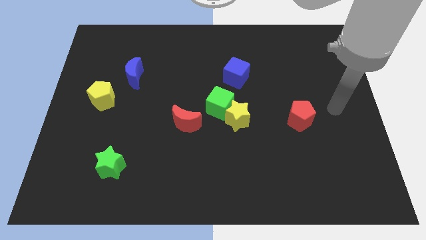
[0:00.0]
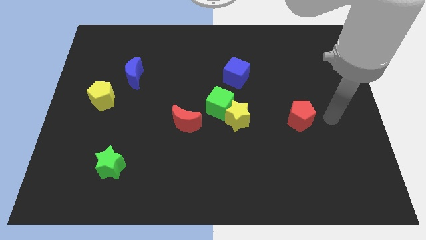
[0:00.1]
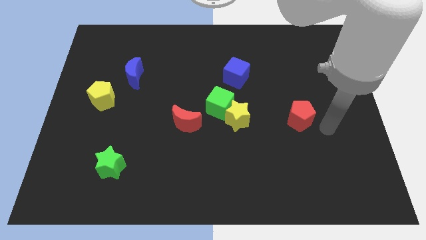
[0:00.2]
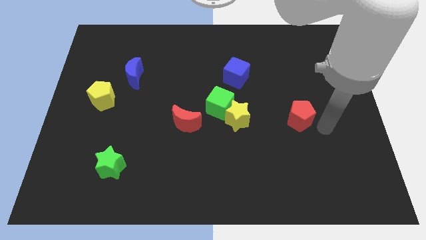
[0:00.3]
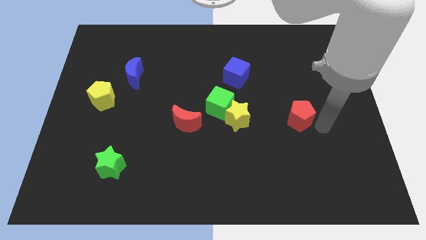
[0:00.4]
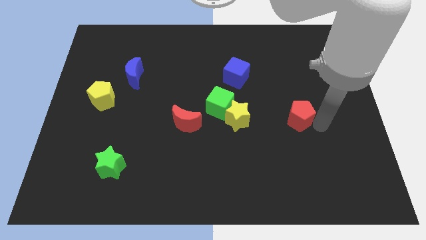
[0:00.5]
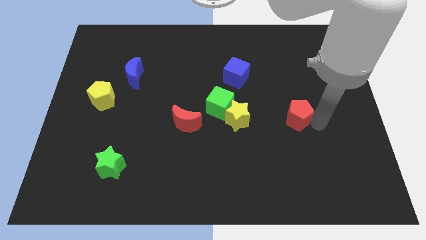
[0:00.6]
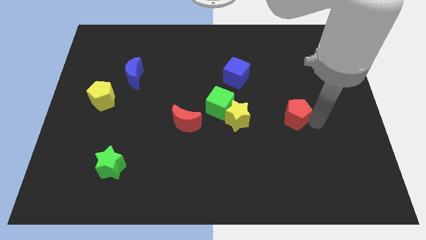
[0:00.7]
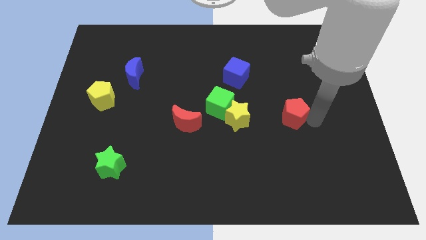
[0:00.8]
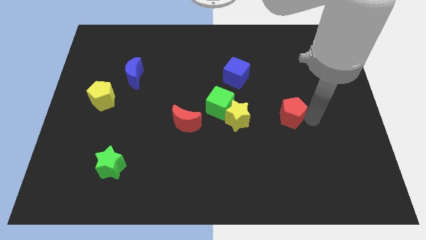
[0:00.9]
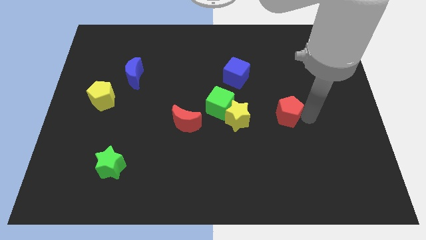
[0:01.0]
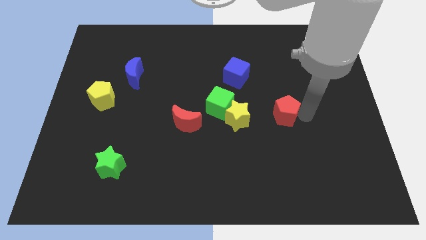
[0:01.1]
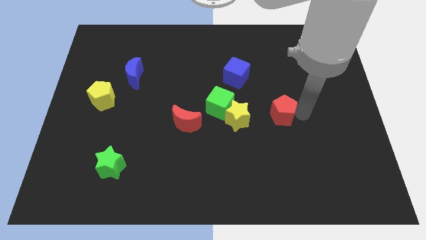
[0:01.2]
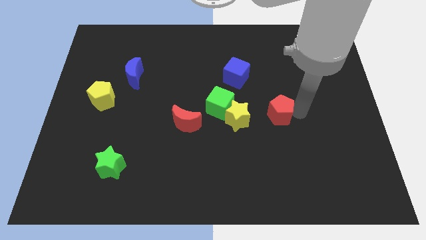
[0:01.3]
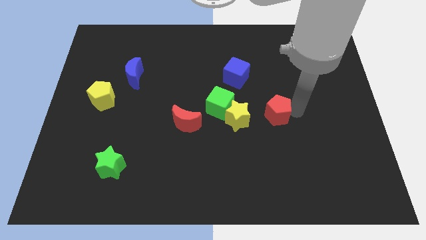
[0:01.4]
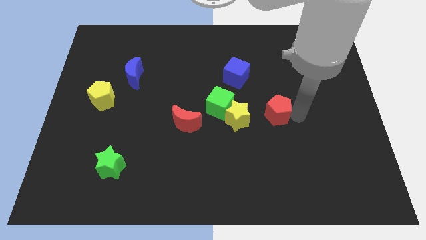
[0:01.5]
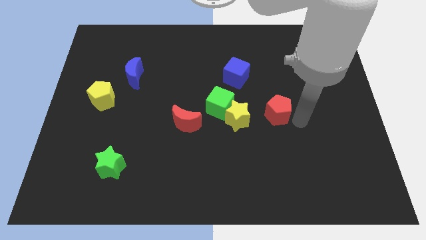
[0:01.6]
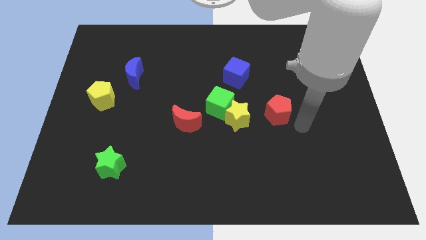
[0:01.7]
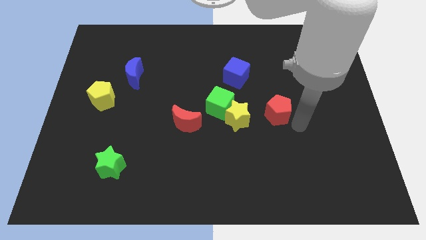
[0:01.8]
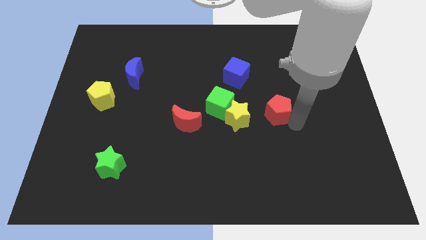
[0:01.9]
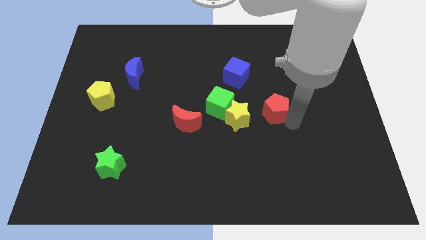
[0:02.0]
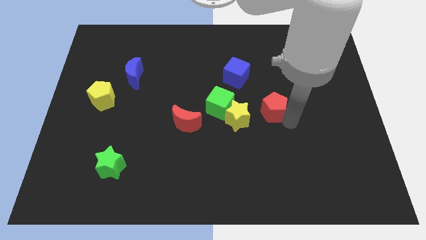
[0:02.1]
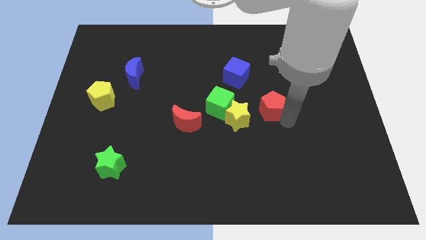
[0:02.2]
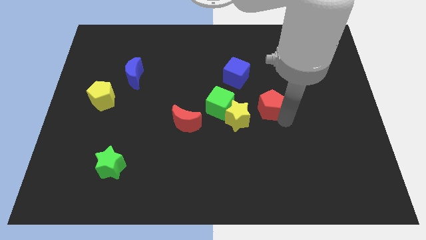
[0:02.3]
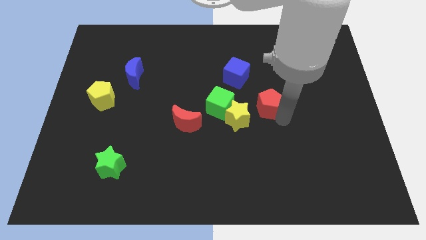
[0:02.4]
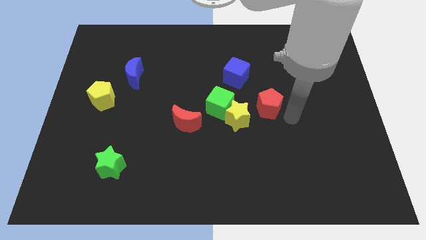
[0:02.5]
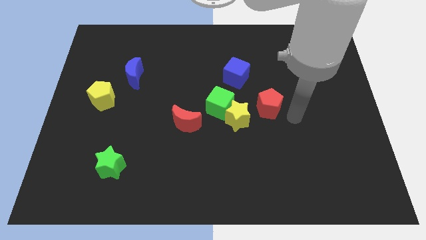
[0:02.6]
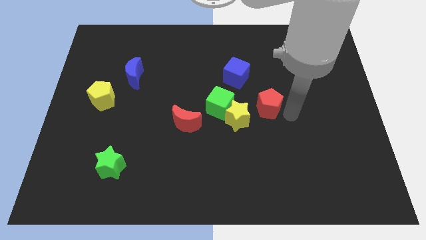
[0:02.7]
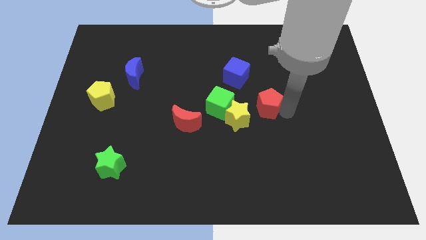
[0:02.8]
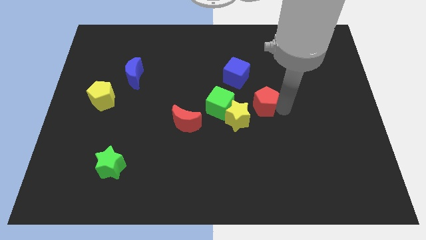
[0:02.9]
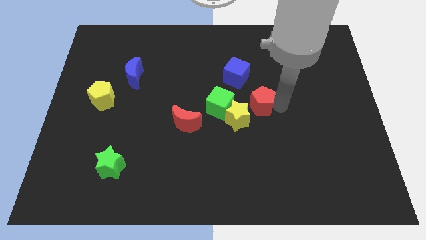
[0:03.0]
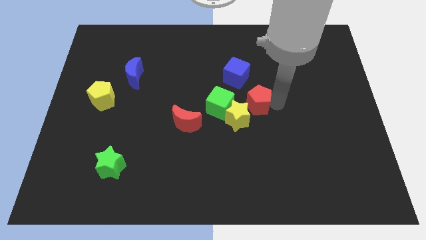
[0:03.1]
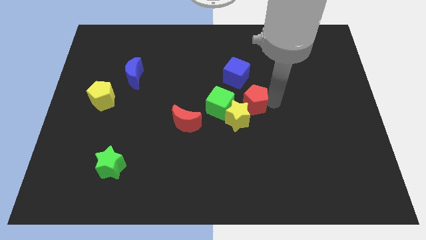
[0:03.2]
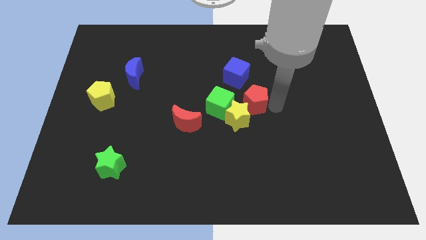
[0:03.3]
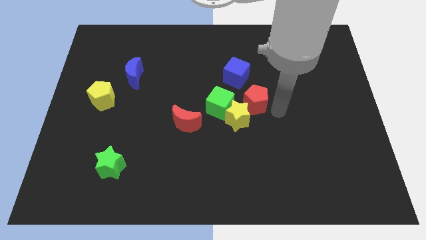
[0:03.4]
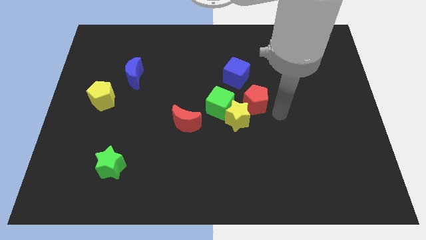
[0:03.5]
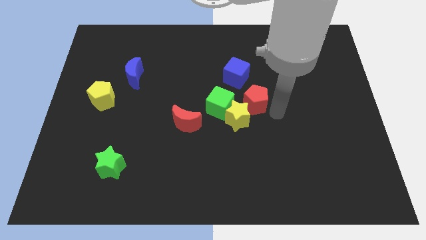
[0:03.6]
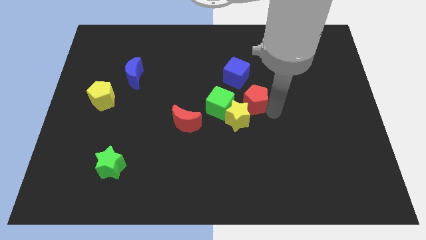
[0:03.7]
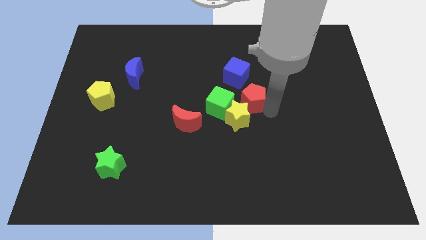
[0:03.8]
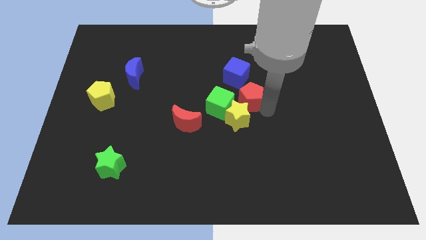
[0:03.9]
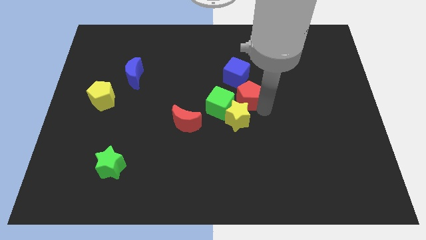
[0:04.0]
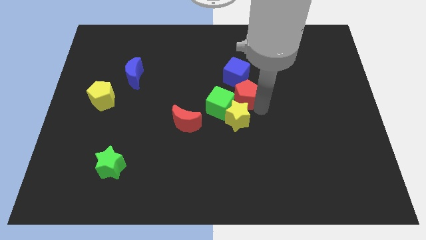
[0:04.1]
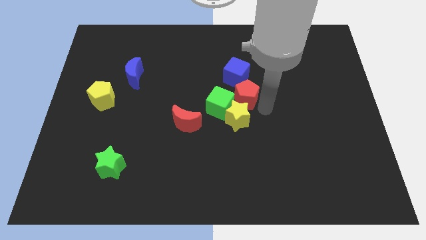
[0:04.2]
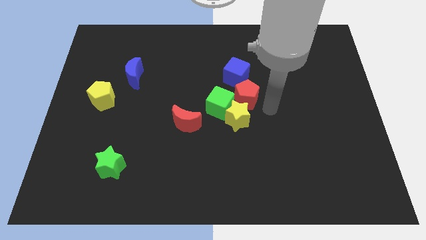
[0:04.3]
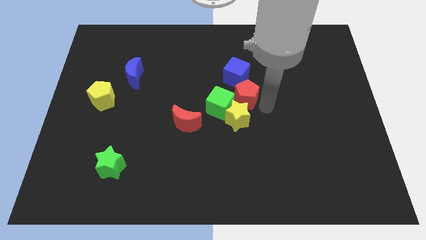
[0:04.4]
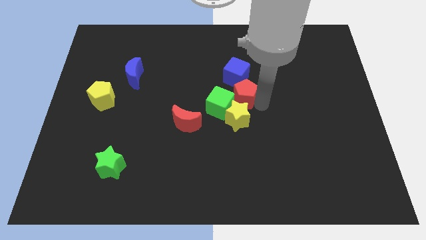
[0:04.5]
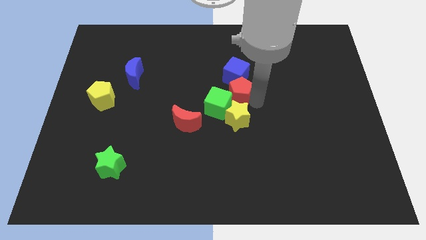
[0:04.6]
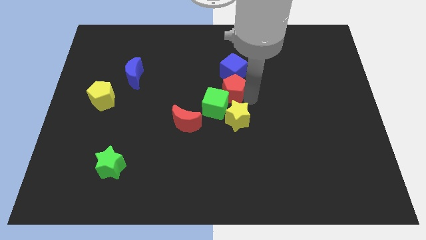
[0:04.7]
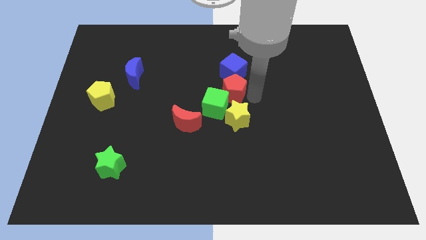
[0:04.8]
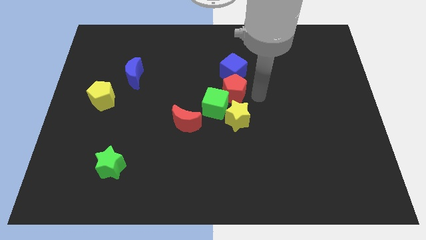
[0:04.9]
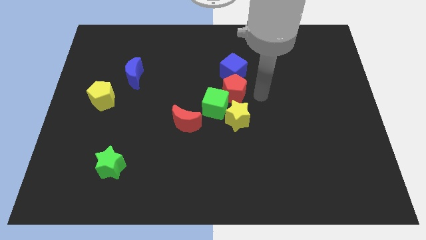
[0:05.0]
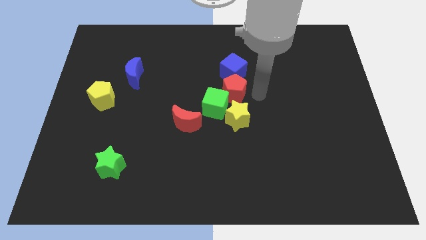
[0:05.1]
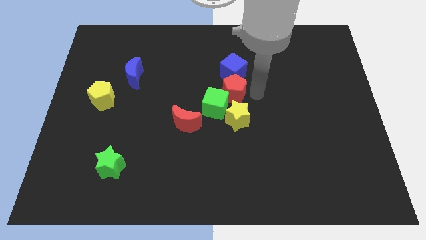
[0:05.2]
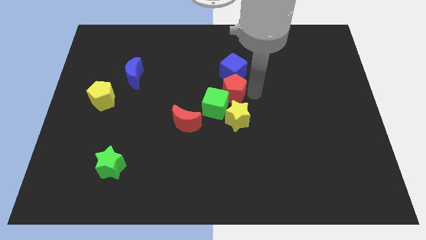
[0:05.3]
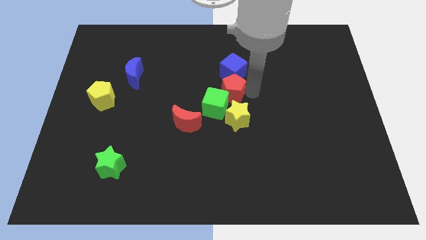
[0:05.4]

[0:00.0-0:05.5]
push the red pentagon towards the green cube
